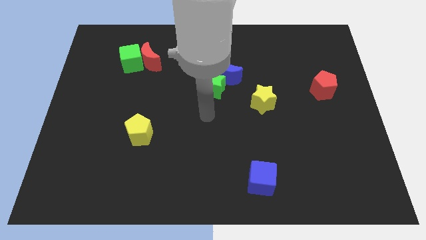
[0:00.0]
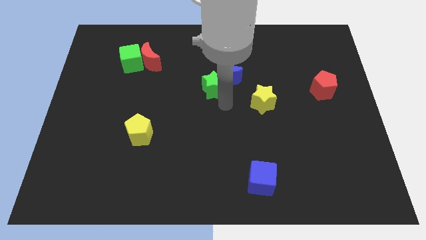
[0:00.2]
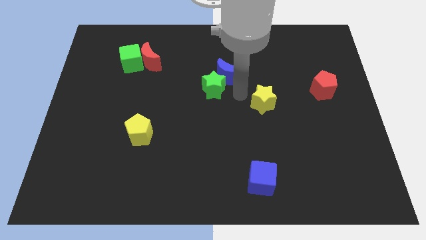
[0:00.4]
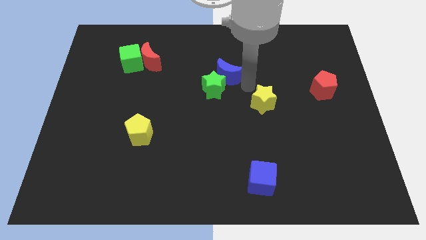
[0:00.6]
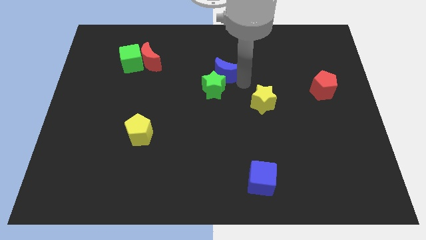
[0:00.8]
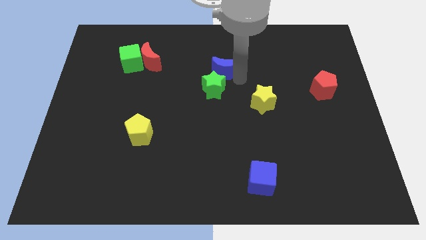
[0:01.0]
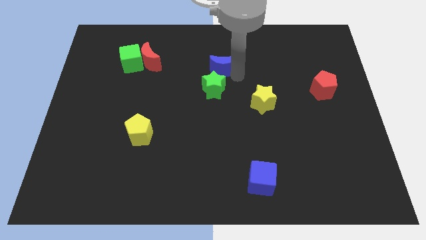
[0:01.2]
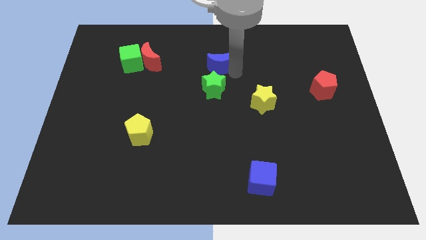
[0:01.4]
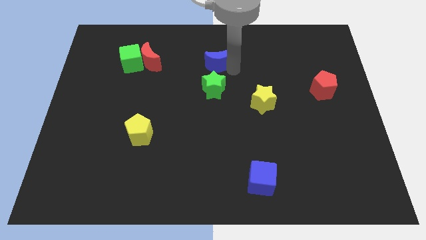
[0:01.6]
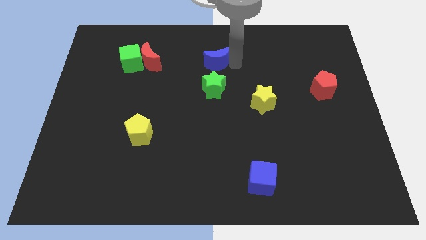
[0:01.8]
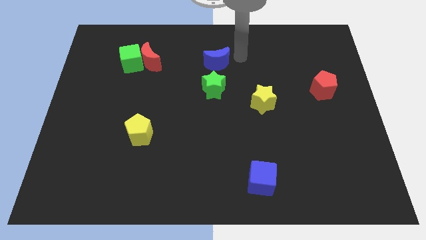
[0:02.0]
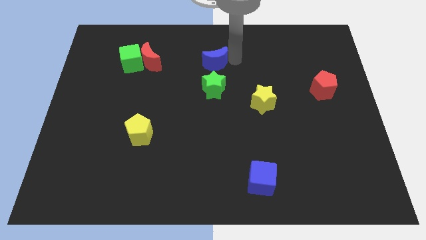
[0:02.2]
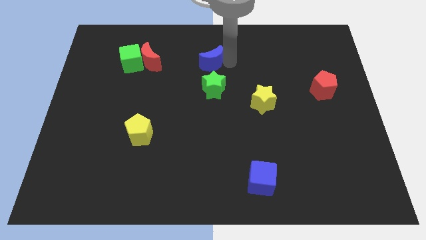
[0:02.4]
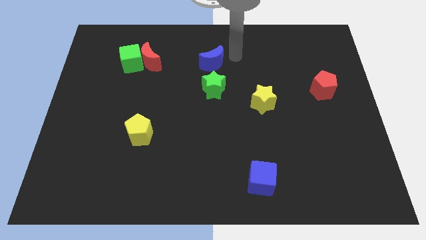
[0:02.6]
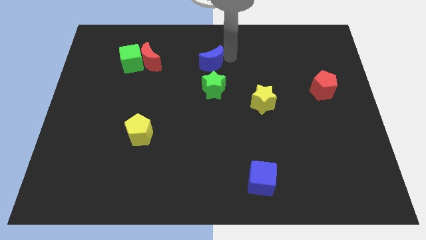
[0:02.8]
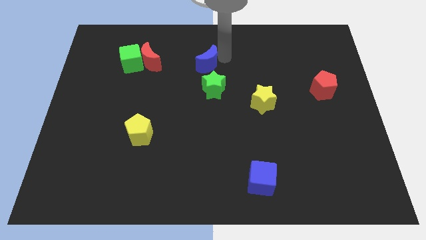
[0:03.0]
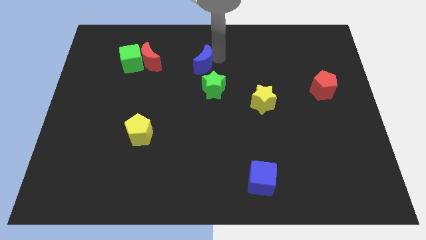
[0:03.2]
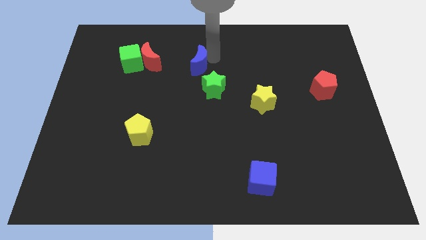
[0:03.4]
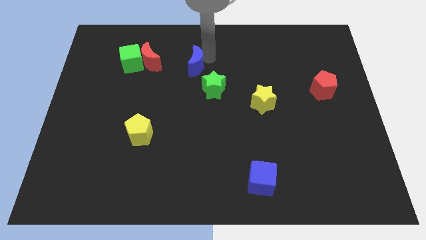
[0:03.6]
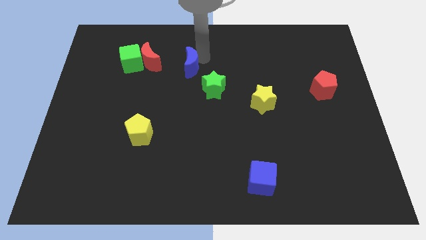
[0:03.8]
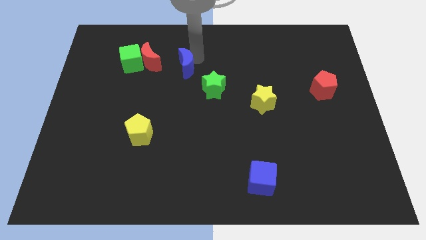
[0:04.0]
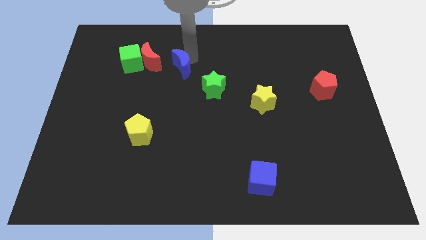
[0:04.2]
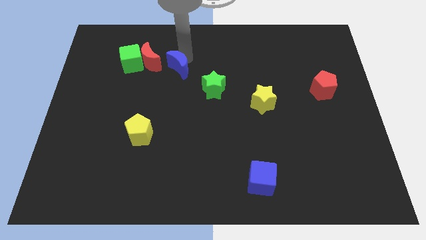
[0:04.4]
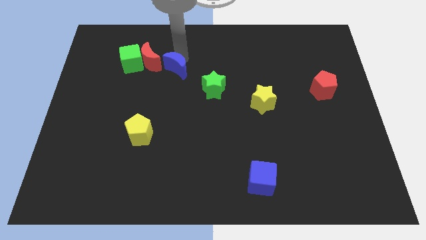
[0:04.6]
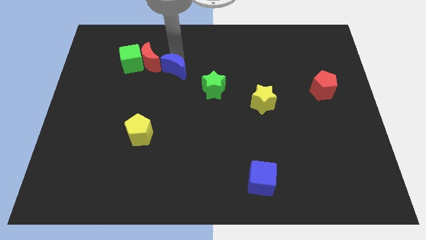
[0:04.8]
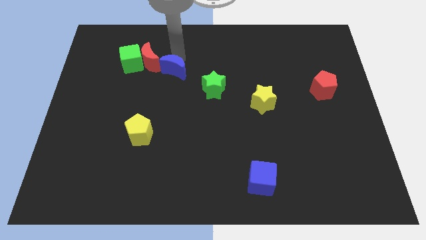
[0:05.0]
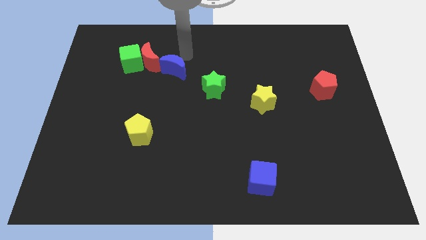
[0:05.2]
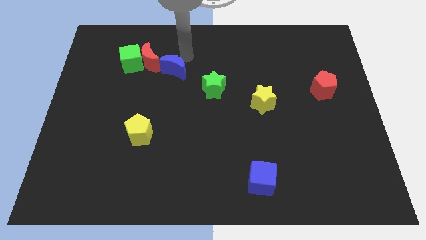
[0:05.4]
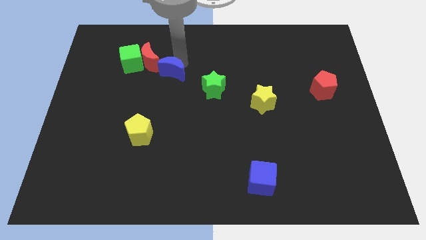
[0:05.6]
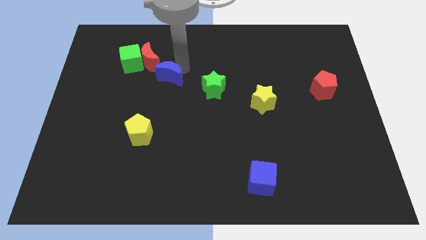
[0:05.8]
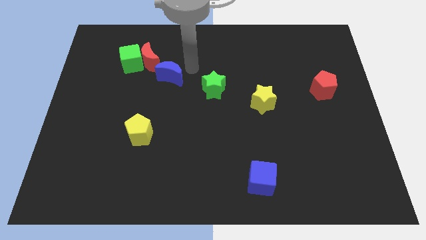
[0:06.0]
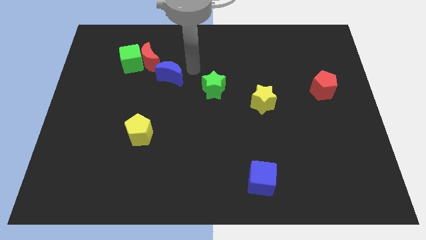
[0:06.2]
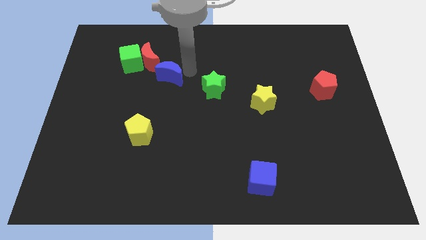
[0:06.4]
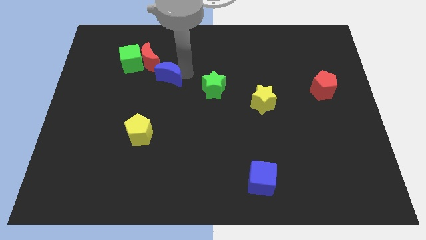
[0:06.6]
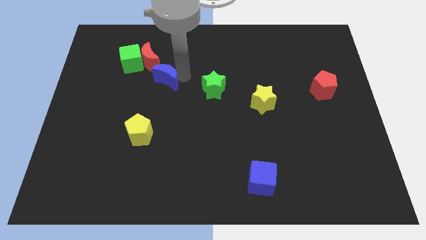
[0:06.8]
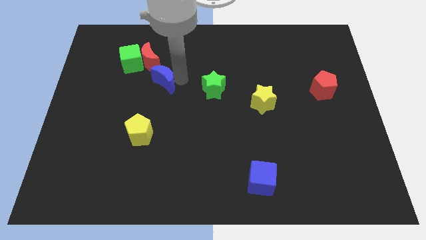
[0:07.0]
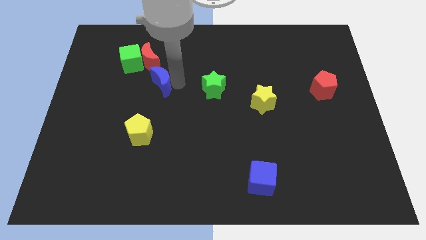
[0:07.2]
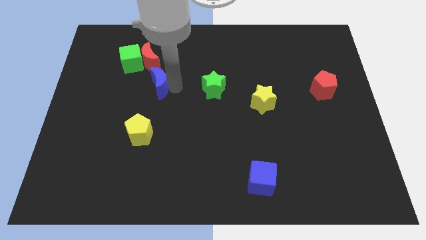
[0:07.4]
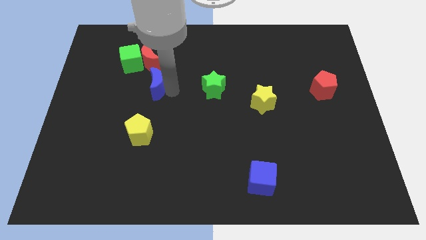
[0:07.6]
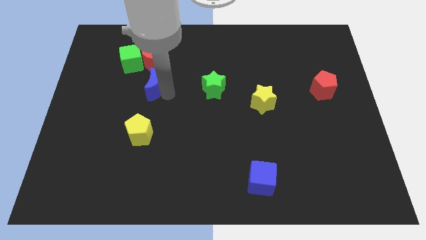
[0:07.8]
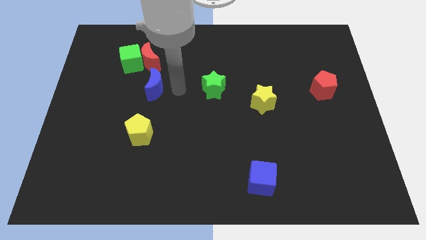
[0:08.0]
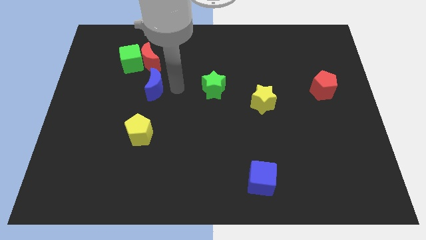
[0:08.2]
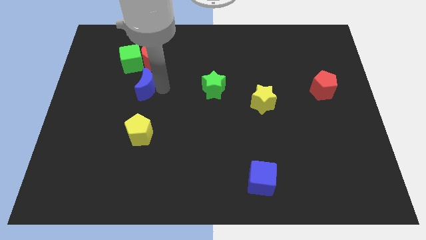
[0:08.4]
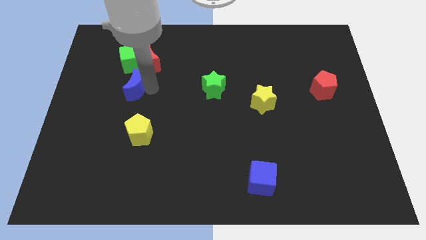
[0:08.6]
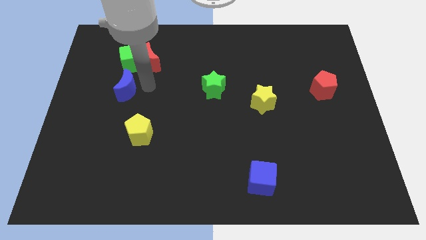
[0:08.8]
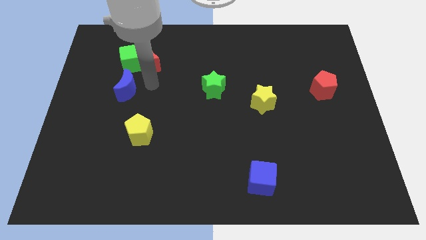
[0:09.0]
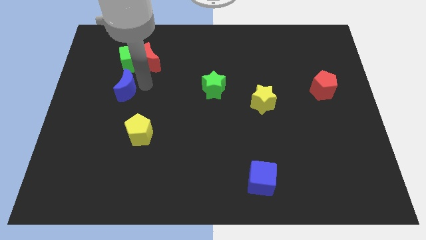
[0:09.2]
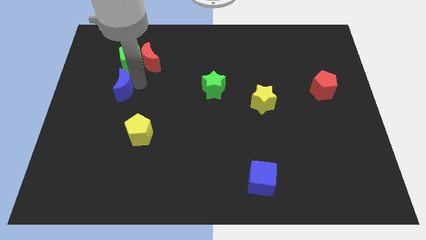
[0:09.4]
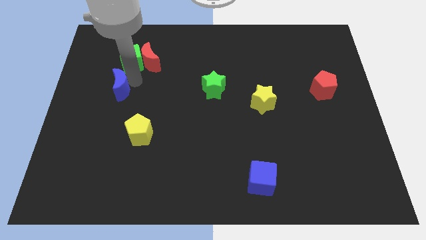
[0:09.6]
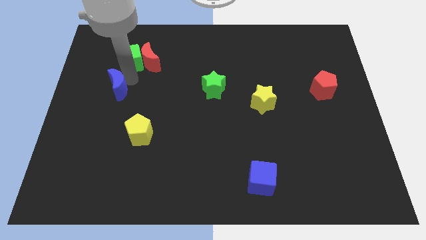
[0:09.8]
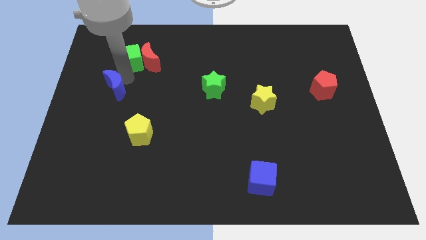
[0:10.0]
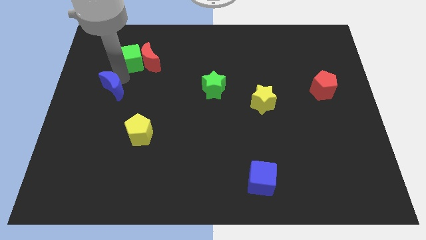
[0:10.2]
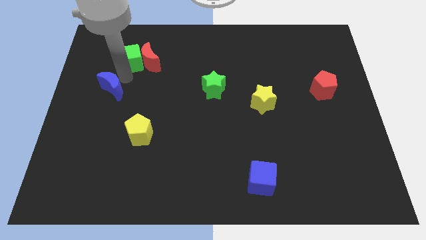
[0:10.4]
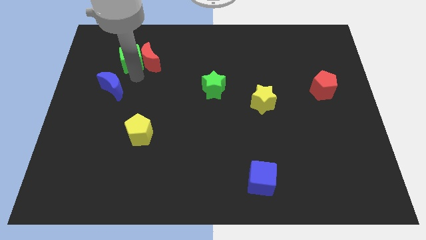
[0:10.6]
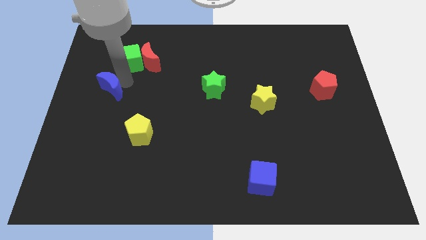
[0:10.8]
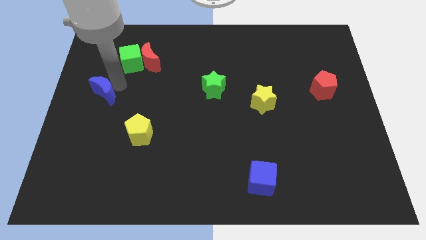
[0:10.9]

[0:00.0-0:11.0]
put the blue moon to the left side of the board

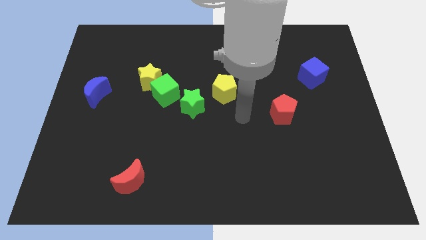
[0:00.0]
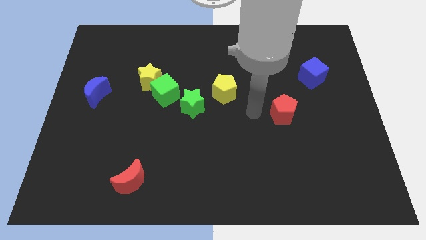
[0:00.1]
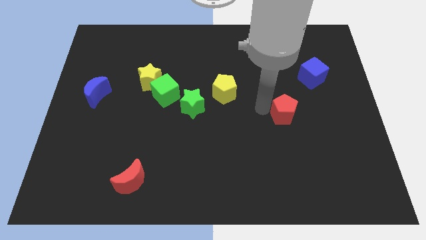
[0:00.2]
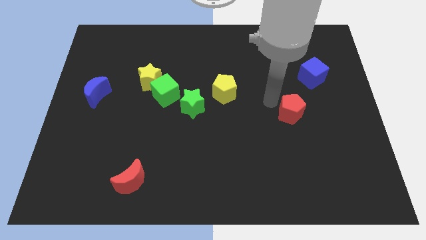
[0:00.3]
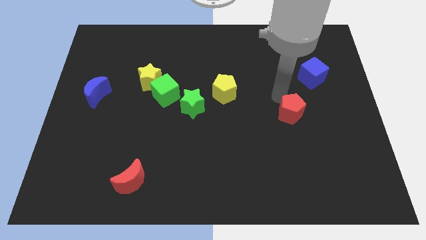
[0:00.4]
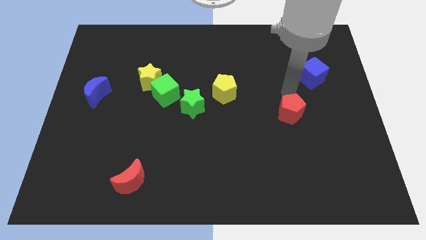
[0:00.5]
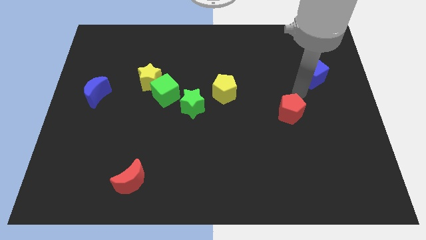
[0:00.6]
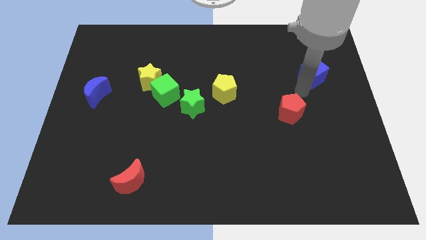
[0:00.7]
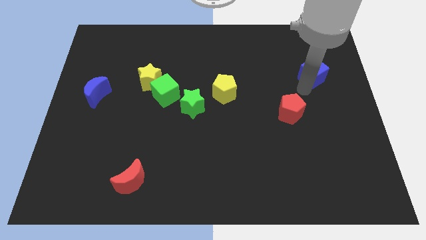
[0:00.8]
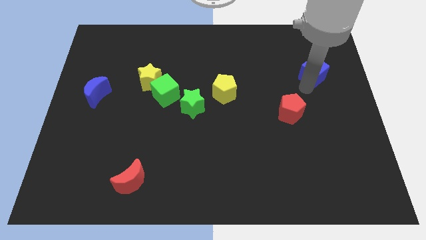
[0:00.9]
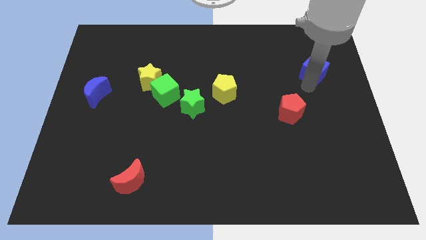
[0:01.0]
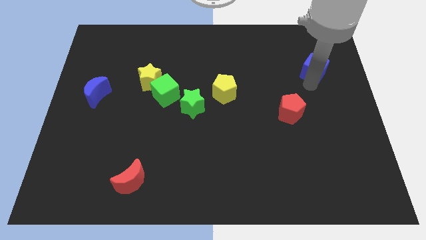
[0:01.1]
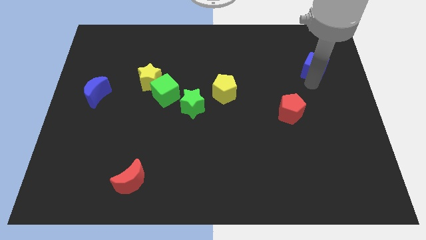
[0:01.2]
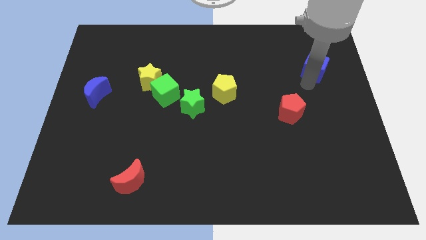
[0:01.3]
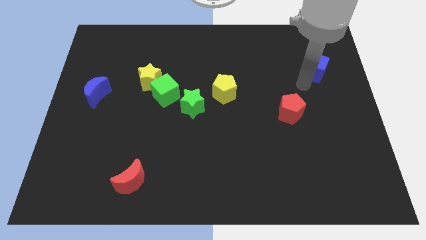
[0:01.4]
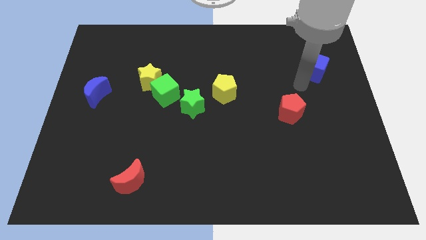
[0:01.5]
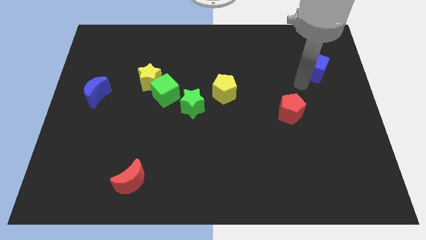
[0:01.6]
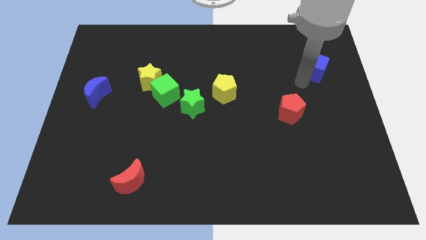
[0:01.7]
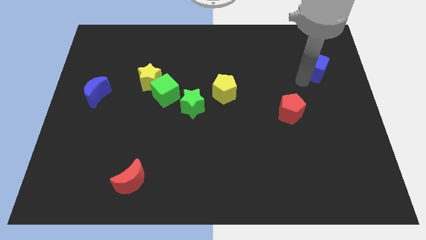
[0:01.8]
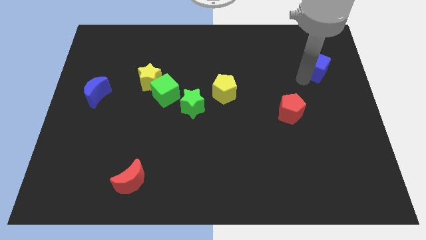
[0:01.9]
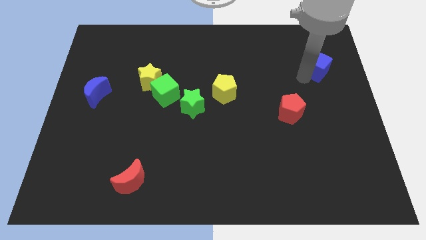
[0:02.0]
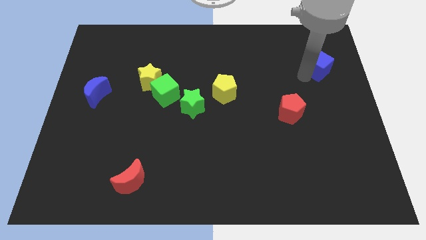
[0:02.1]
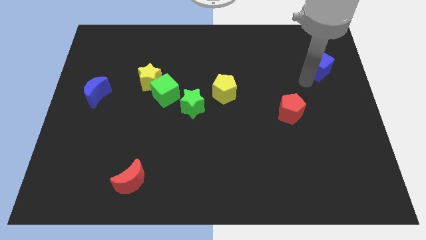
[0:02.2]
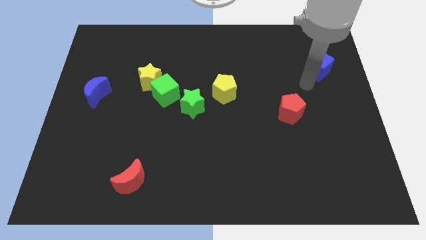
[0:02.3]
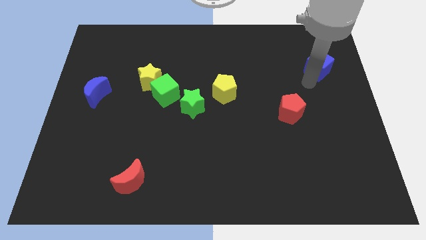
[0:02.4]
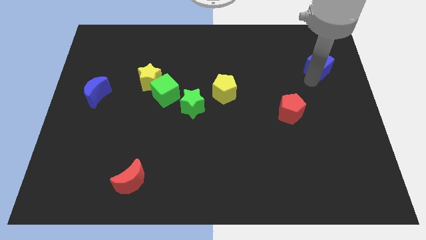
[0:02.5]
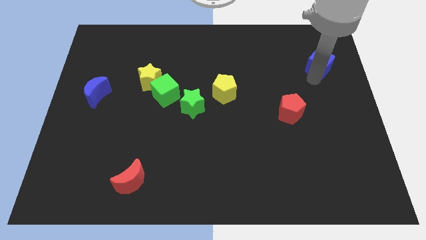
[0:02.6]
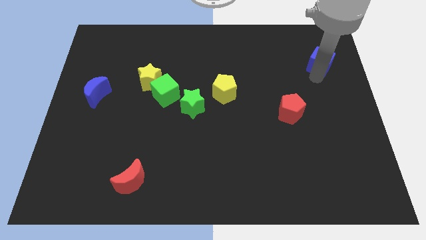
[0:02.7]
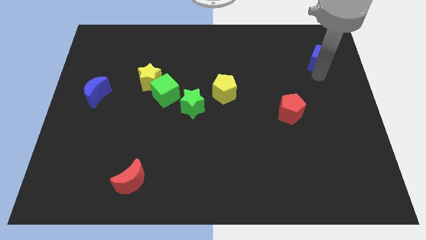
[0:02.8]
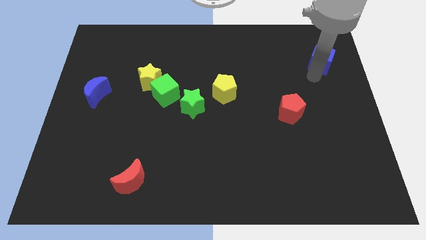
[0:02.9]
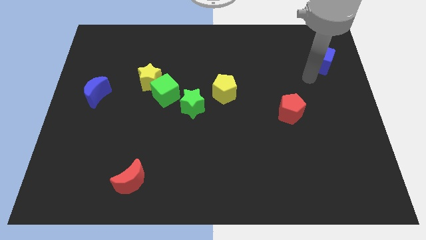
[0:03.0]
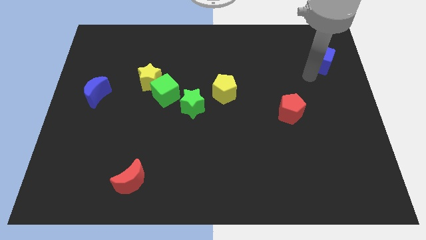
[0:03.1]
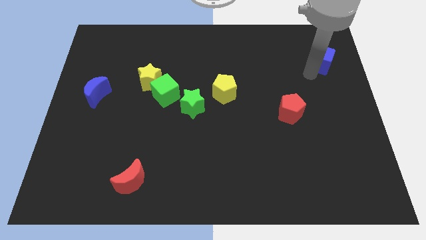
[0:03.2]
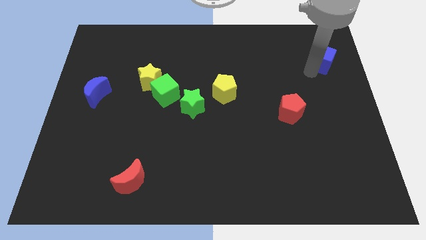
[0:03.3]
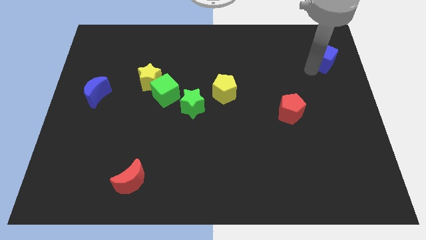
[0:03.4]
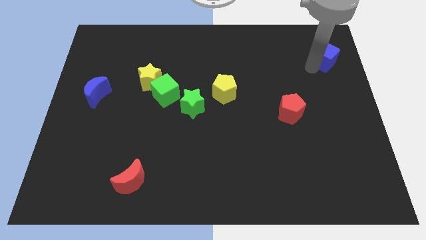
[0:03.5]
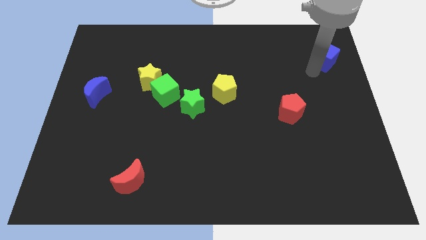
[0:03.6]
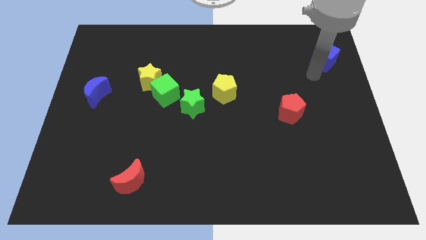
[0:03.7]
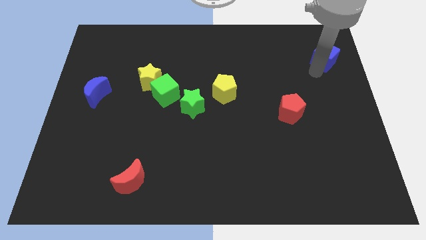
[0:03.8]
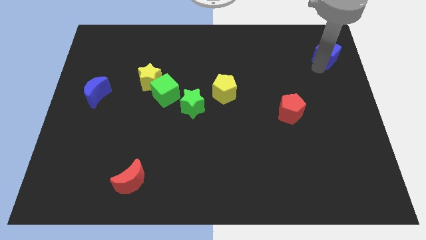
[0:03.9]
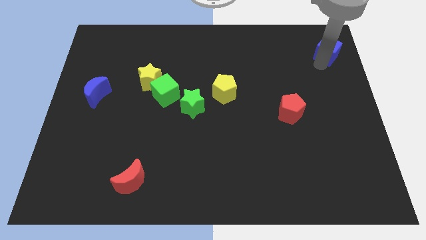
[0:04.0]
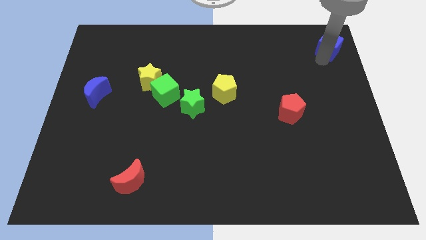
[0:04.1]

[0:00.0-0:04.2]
put the blue cube to the top right corner
